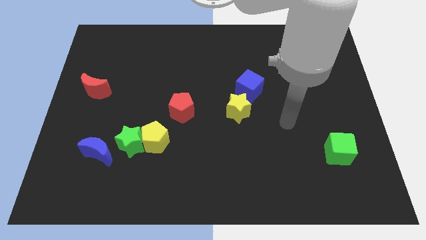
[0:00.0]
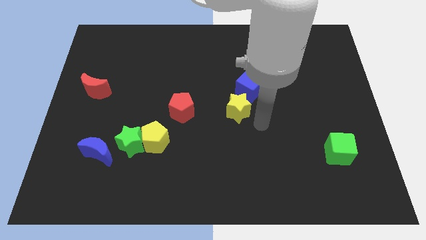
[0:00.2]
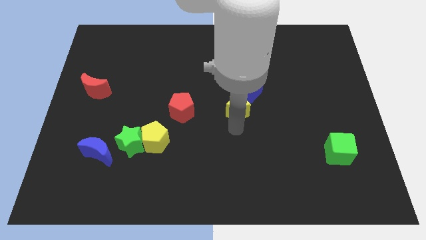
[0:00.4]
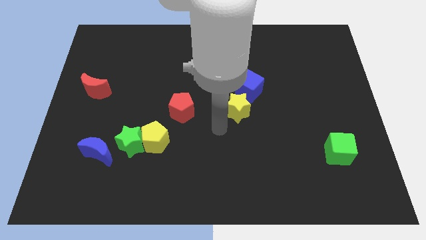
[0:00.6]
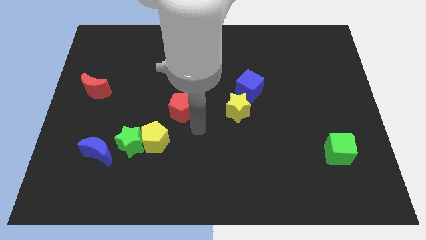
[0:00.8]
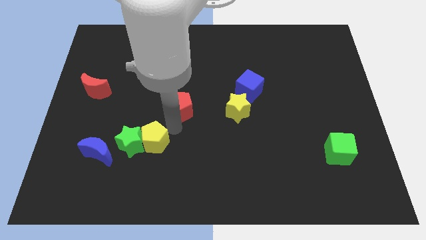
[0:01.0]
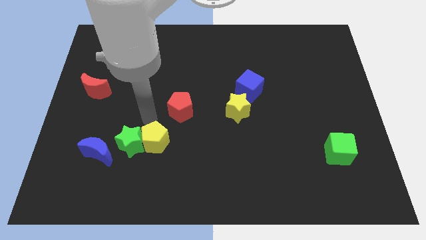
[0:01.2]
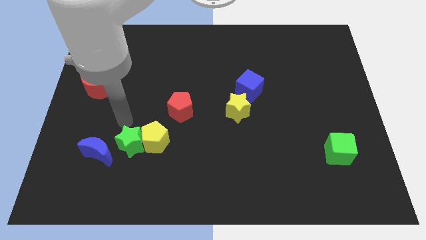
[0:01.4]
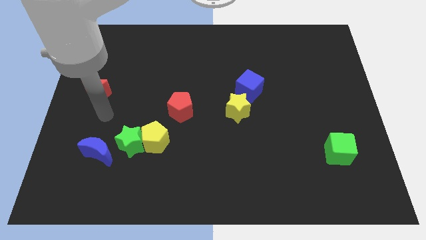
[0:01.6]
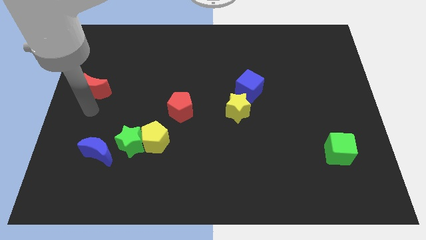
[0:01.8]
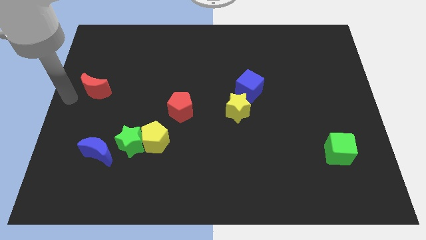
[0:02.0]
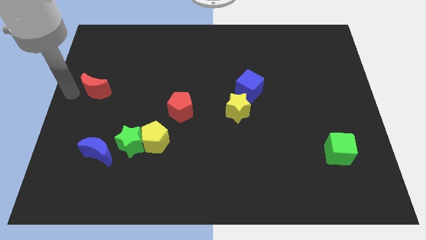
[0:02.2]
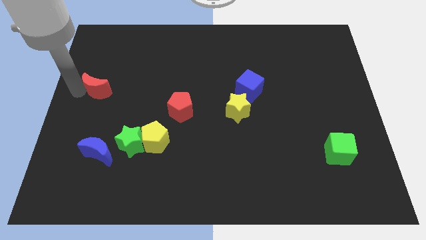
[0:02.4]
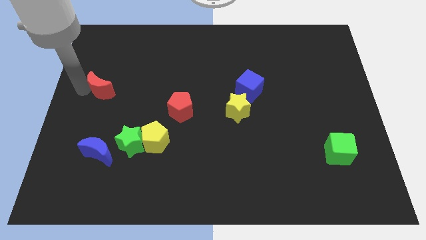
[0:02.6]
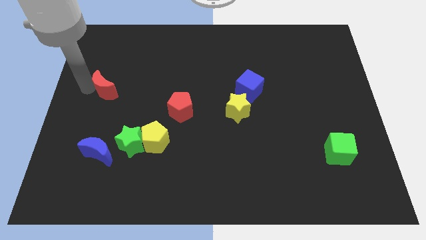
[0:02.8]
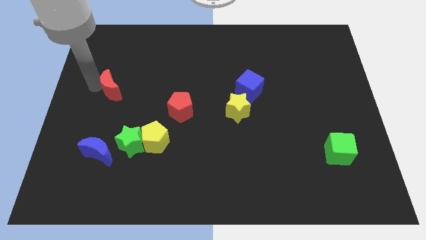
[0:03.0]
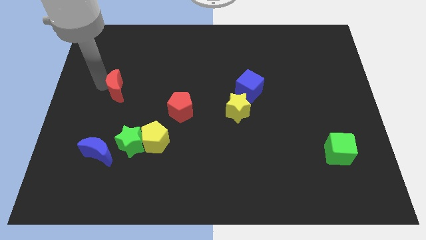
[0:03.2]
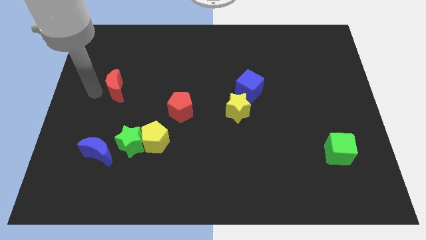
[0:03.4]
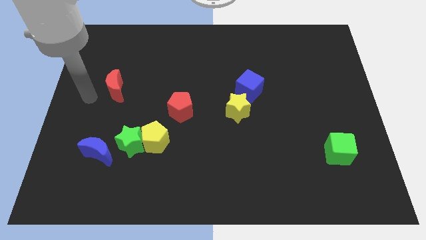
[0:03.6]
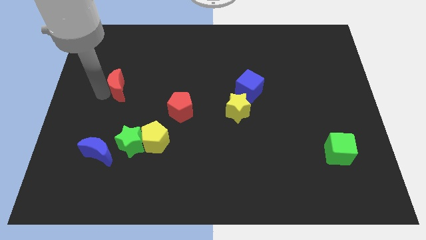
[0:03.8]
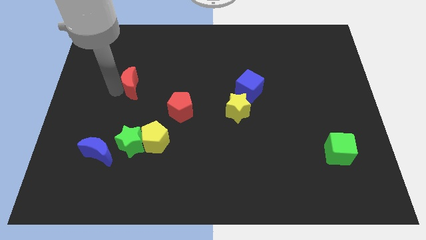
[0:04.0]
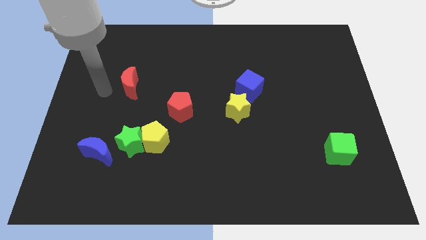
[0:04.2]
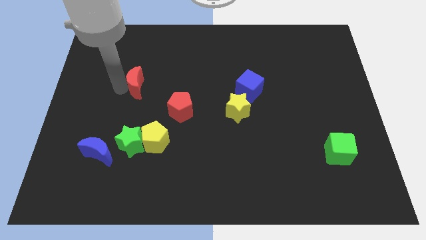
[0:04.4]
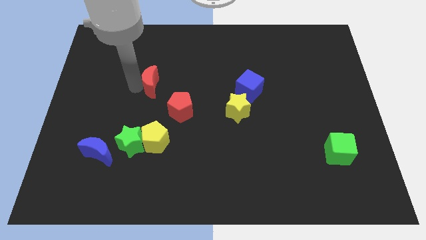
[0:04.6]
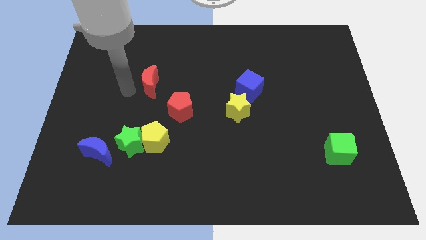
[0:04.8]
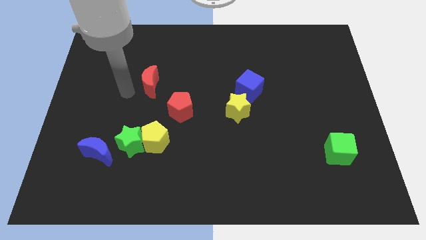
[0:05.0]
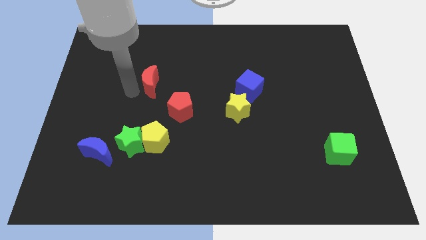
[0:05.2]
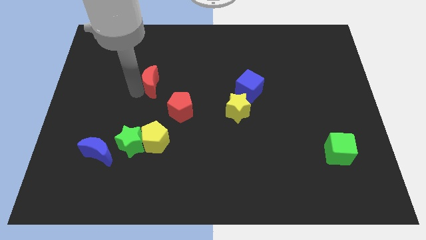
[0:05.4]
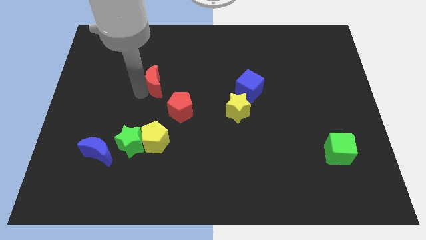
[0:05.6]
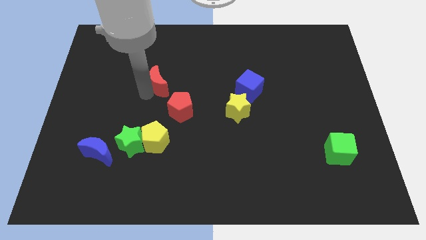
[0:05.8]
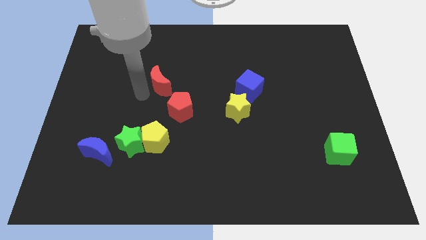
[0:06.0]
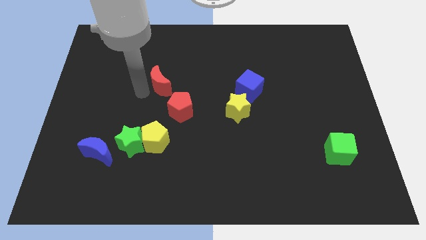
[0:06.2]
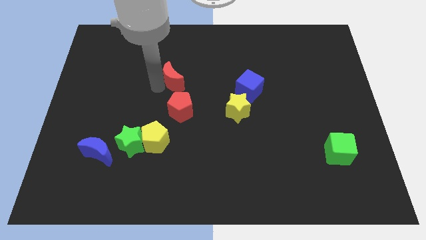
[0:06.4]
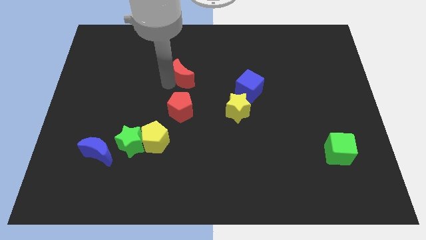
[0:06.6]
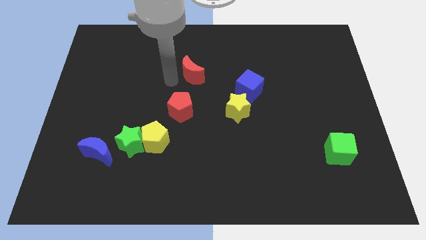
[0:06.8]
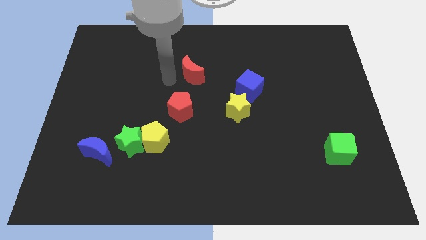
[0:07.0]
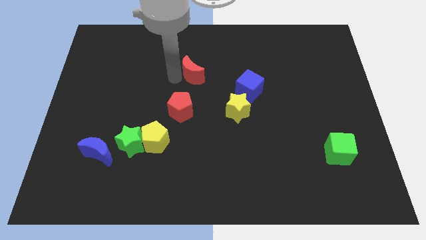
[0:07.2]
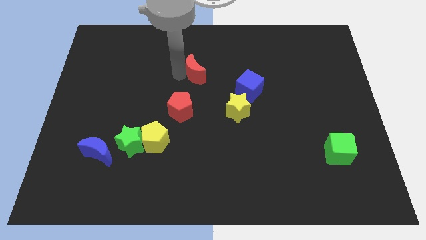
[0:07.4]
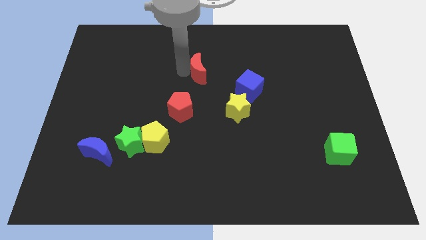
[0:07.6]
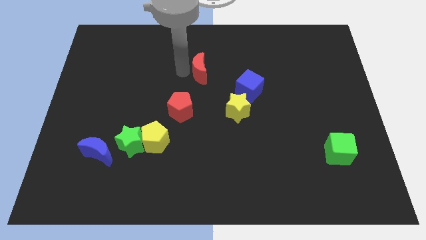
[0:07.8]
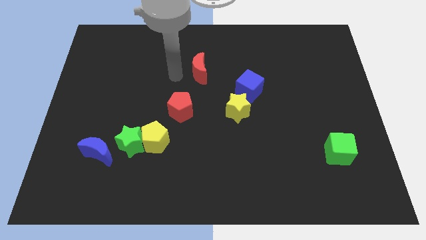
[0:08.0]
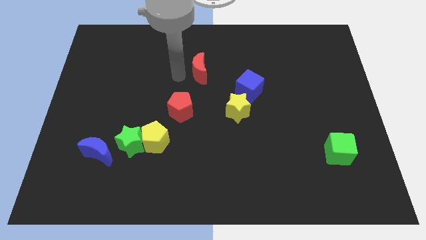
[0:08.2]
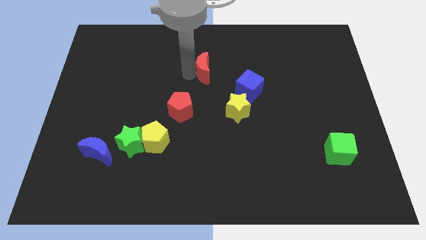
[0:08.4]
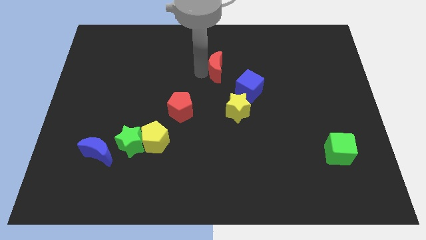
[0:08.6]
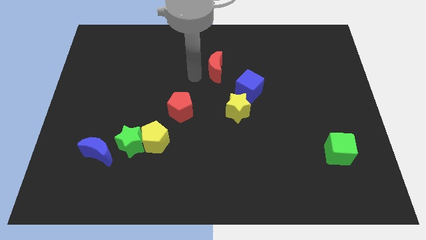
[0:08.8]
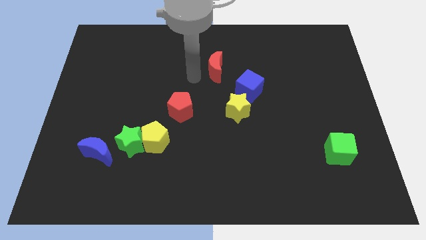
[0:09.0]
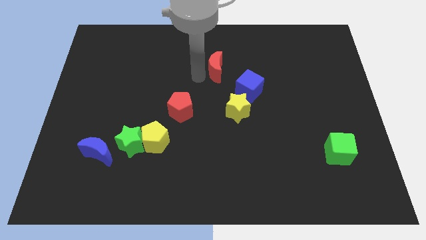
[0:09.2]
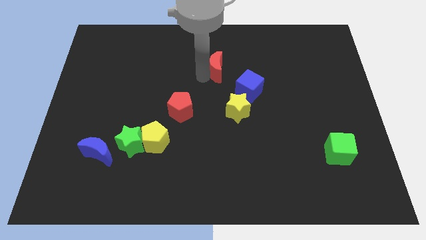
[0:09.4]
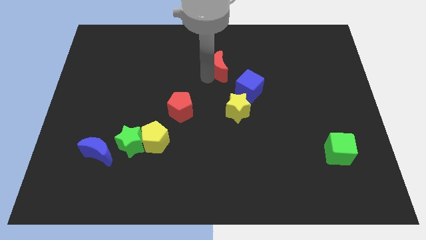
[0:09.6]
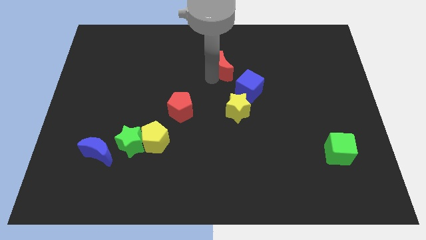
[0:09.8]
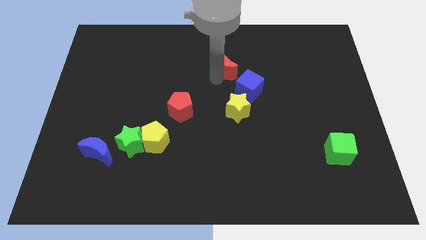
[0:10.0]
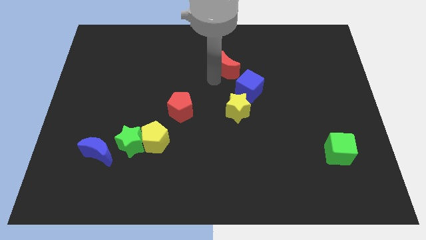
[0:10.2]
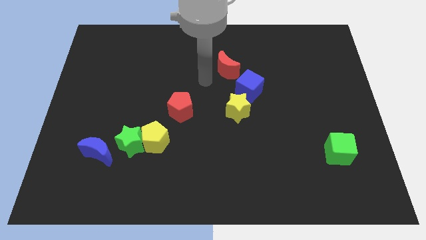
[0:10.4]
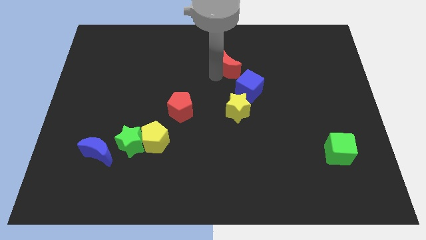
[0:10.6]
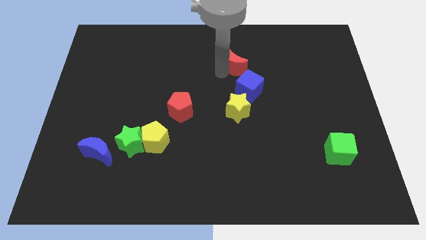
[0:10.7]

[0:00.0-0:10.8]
slide the red moon to the top of the blue cube

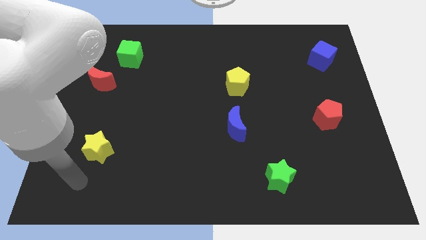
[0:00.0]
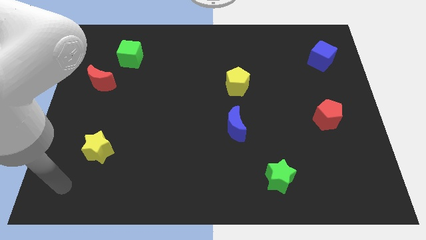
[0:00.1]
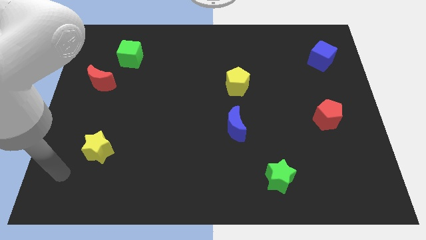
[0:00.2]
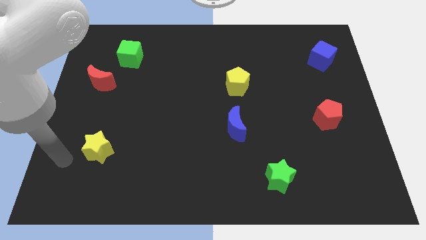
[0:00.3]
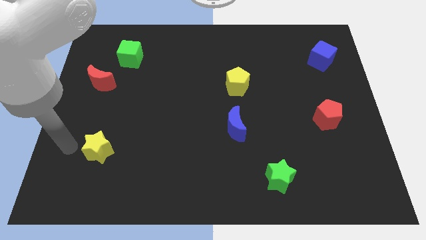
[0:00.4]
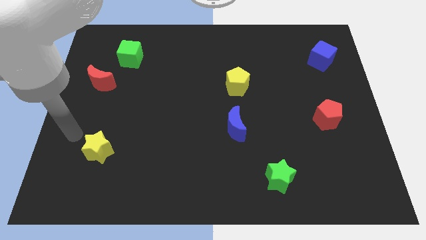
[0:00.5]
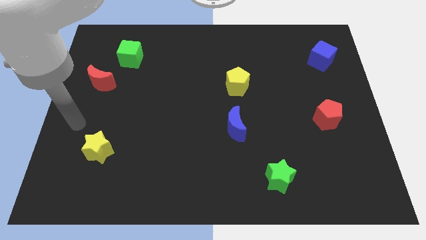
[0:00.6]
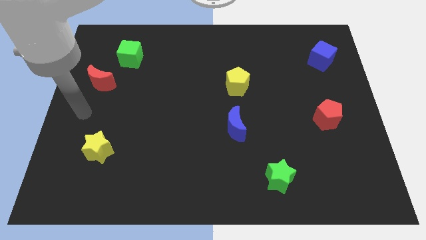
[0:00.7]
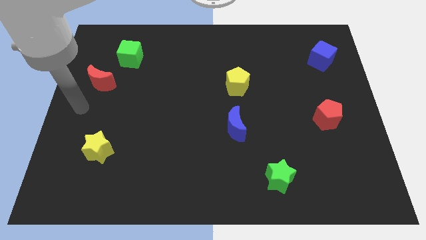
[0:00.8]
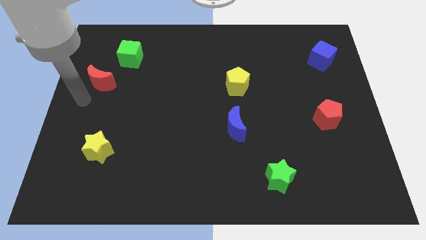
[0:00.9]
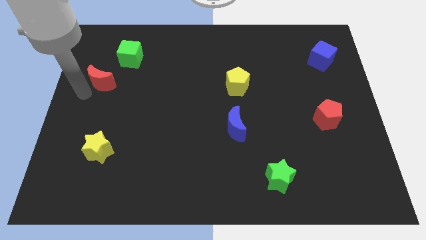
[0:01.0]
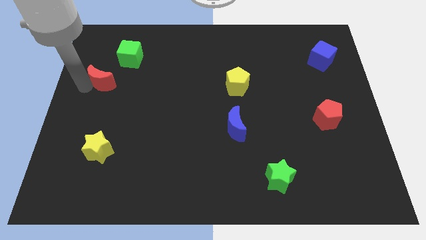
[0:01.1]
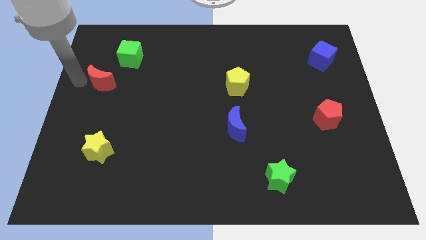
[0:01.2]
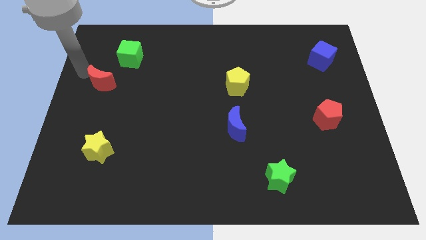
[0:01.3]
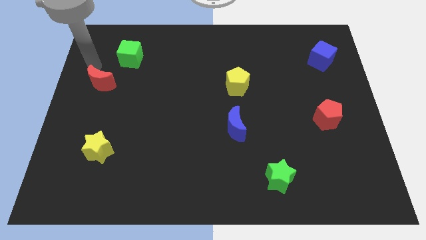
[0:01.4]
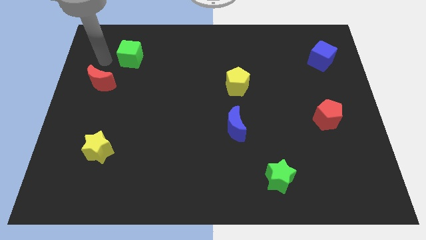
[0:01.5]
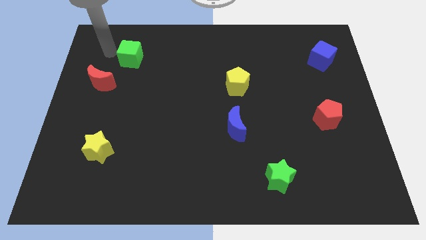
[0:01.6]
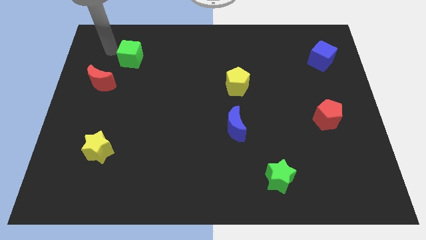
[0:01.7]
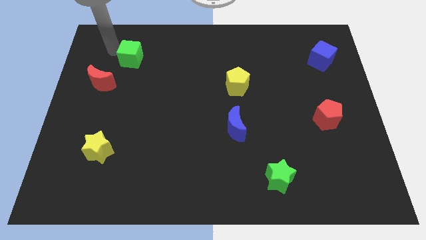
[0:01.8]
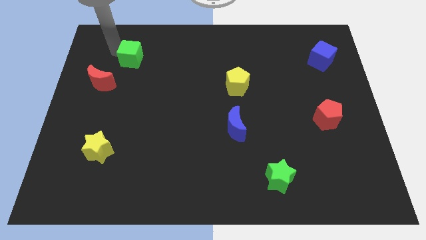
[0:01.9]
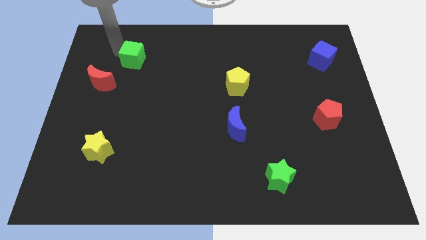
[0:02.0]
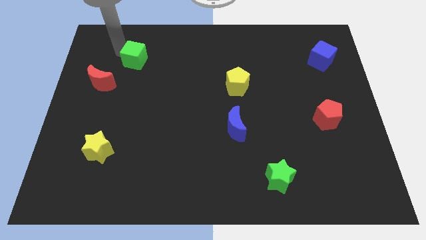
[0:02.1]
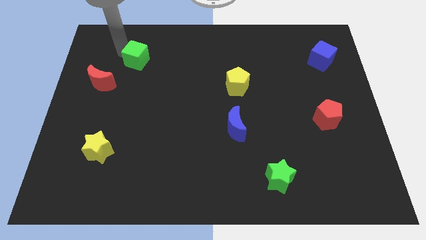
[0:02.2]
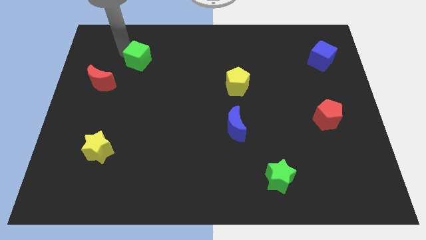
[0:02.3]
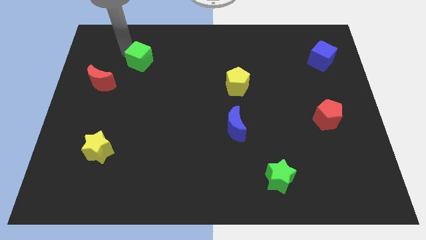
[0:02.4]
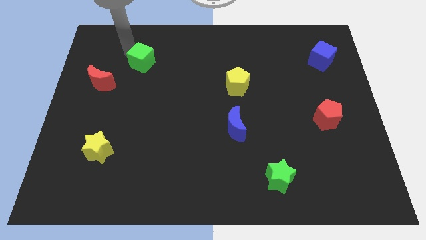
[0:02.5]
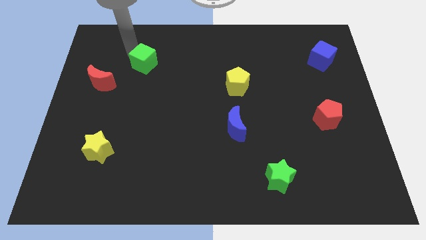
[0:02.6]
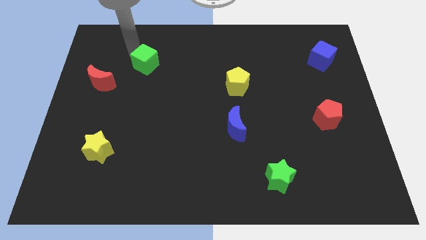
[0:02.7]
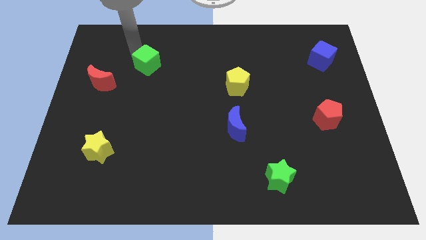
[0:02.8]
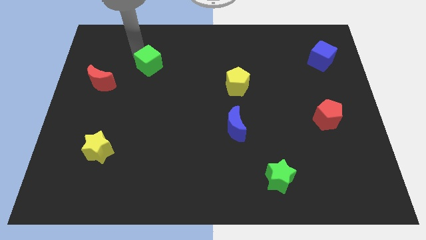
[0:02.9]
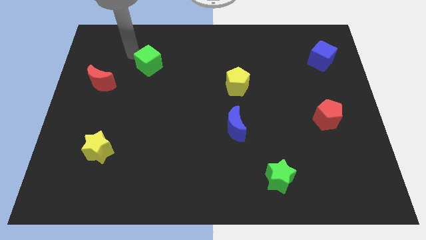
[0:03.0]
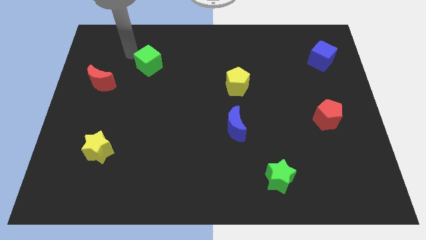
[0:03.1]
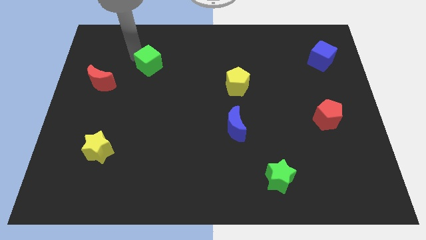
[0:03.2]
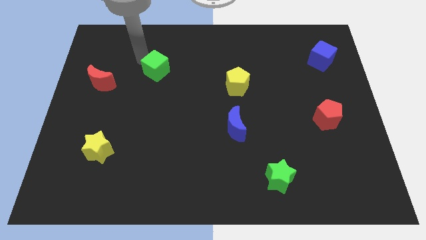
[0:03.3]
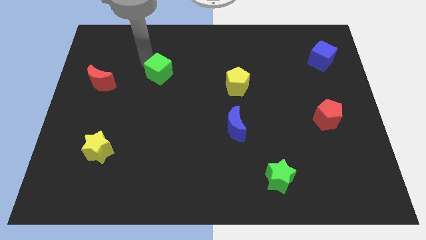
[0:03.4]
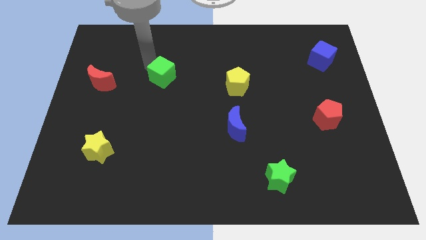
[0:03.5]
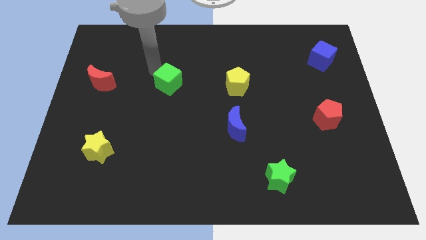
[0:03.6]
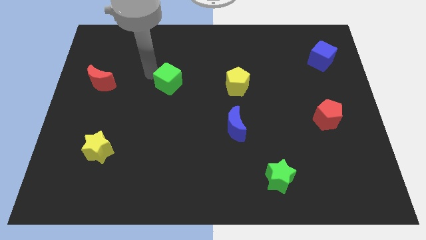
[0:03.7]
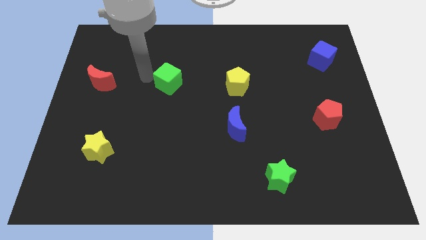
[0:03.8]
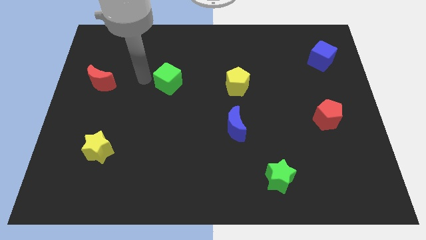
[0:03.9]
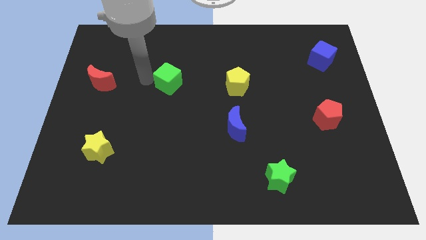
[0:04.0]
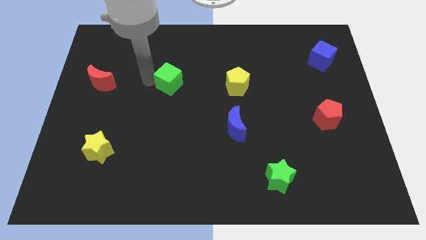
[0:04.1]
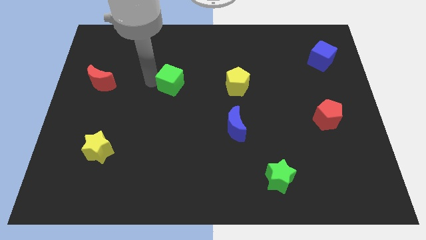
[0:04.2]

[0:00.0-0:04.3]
slide the green cube left of the yellow pentagon
